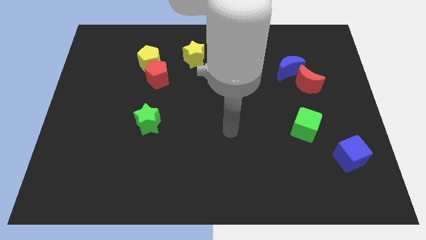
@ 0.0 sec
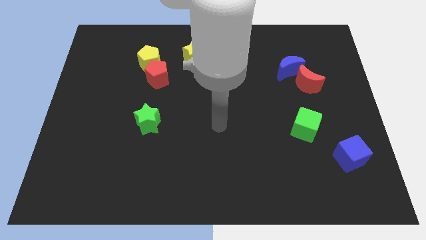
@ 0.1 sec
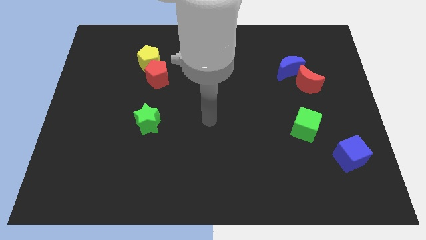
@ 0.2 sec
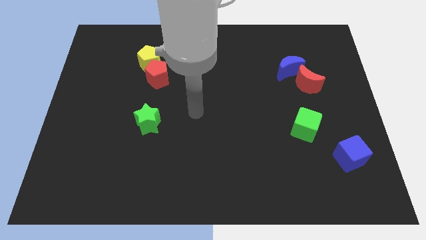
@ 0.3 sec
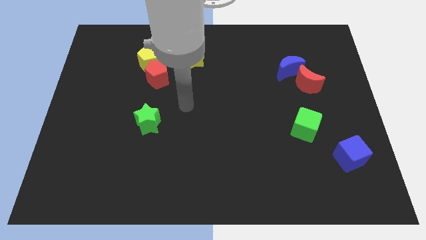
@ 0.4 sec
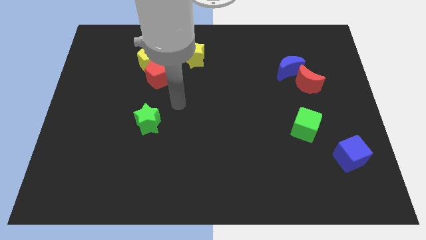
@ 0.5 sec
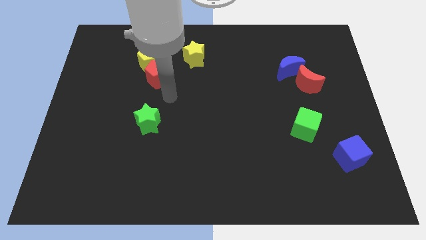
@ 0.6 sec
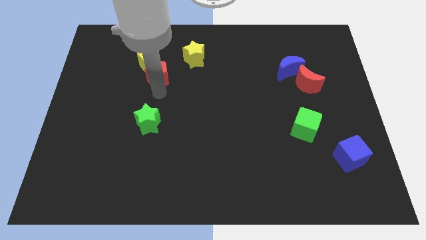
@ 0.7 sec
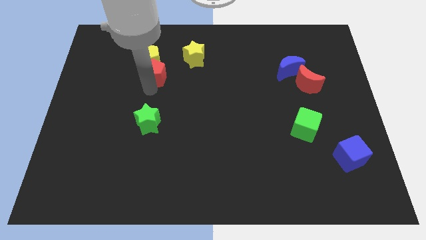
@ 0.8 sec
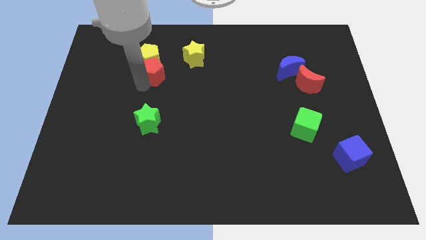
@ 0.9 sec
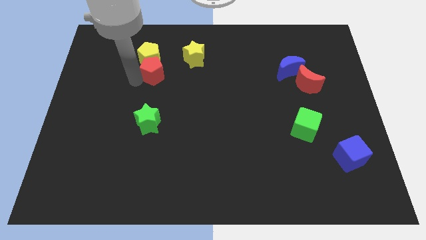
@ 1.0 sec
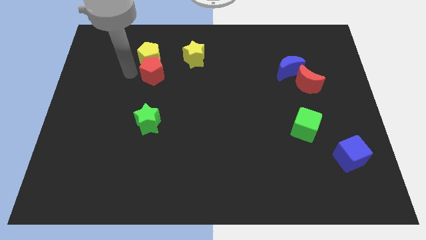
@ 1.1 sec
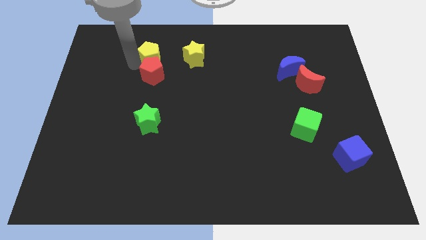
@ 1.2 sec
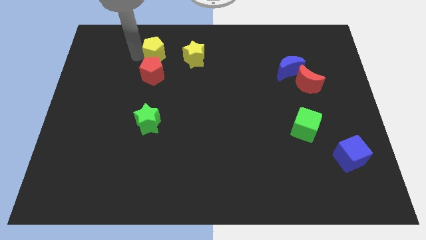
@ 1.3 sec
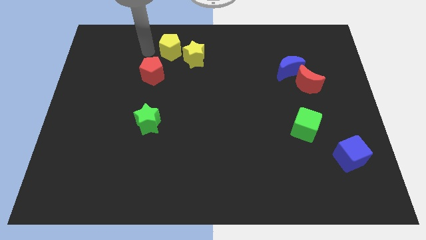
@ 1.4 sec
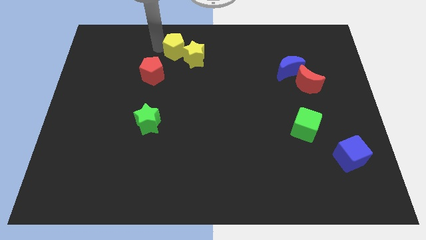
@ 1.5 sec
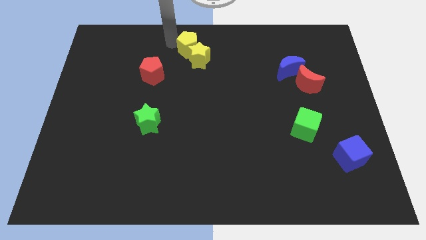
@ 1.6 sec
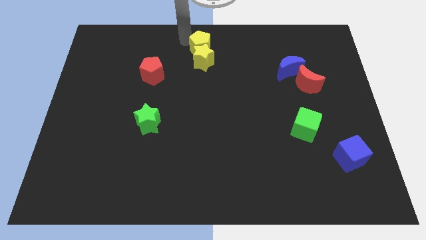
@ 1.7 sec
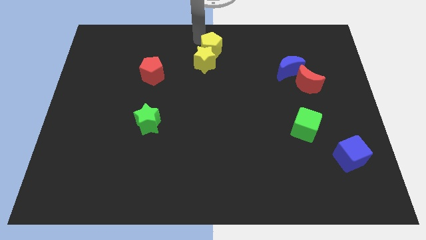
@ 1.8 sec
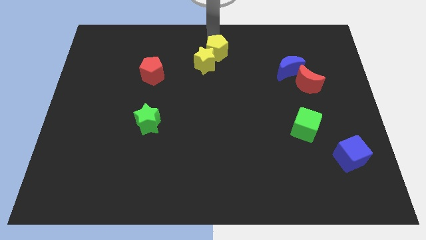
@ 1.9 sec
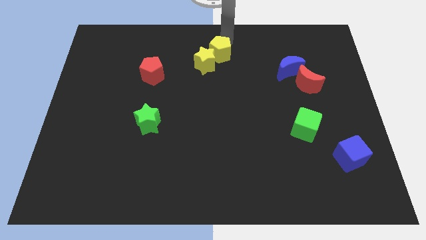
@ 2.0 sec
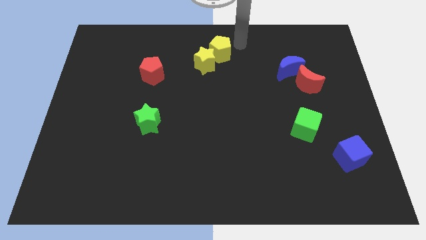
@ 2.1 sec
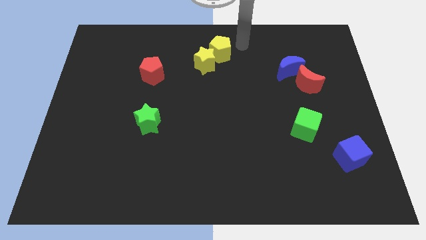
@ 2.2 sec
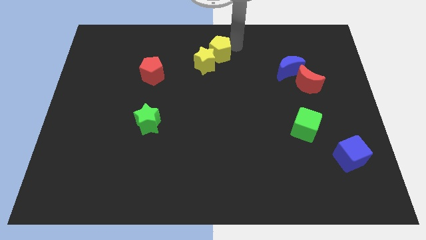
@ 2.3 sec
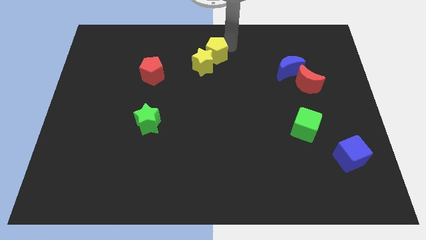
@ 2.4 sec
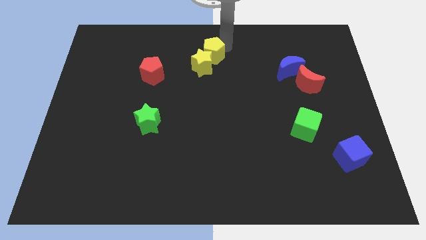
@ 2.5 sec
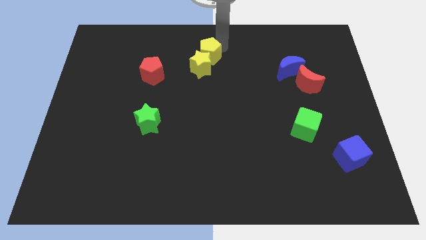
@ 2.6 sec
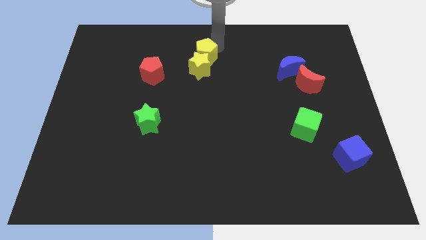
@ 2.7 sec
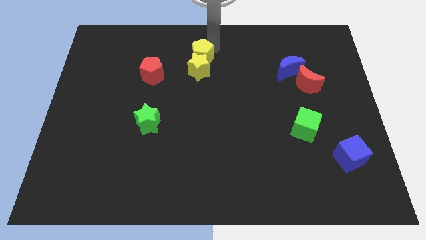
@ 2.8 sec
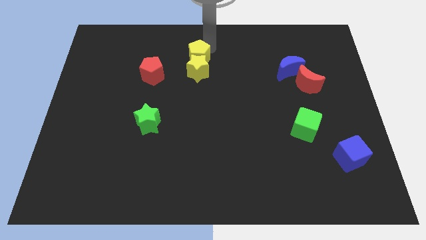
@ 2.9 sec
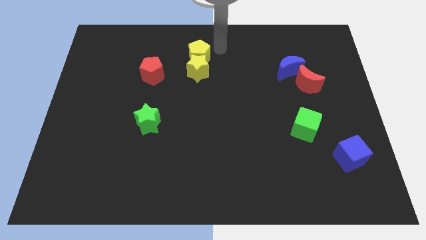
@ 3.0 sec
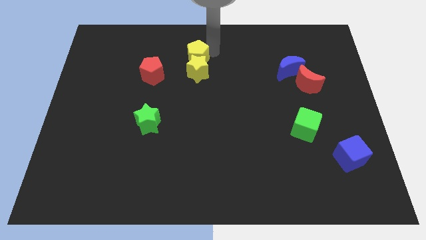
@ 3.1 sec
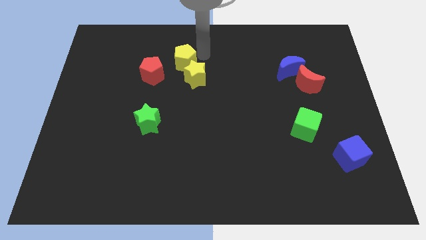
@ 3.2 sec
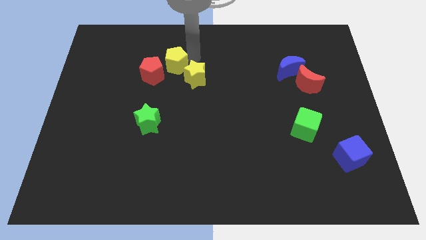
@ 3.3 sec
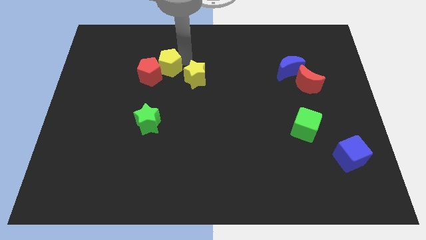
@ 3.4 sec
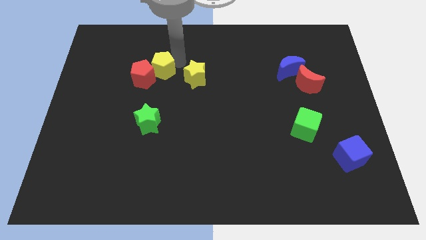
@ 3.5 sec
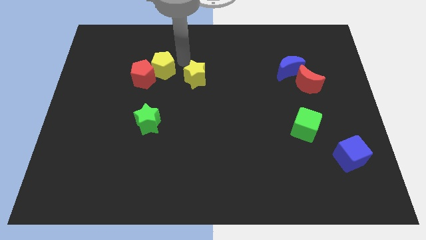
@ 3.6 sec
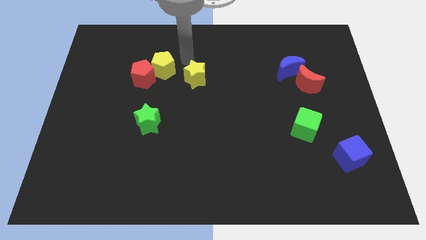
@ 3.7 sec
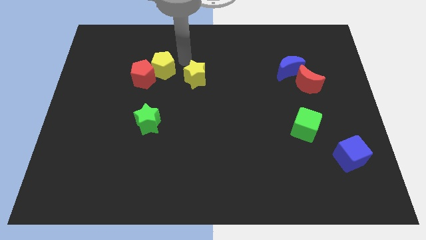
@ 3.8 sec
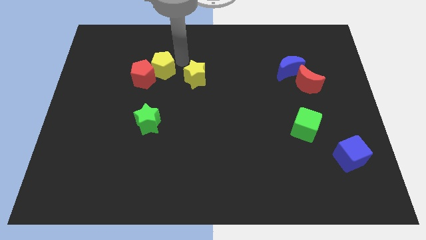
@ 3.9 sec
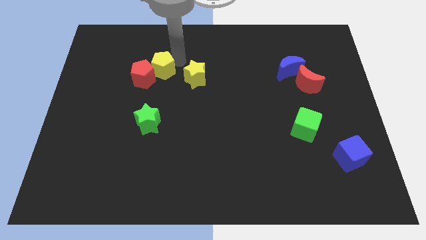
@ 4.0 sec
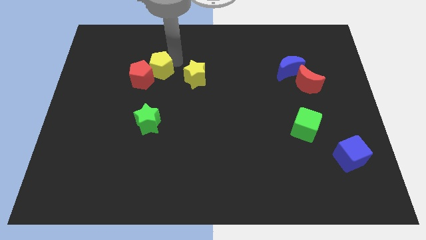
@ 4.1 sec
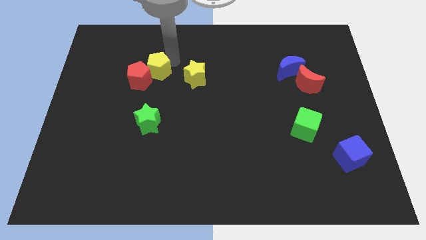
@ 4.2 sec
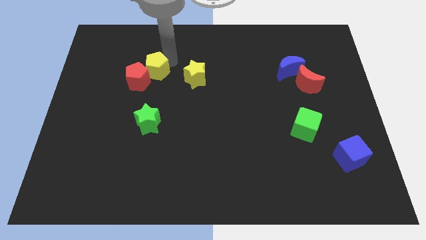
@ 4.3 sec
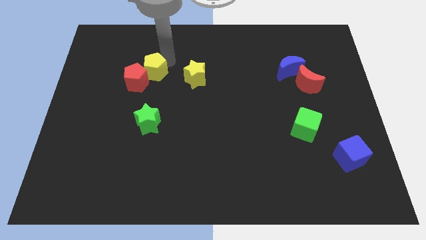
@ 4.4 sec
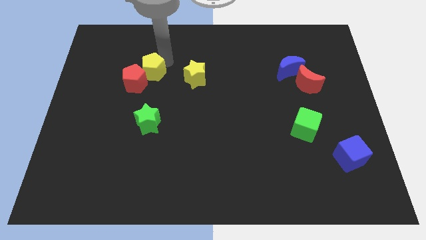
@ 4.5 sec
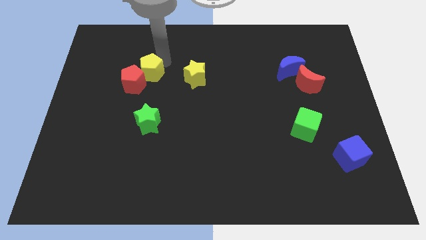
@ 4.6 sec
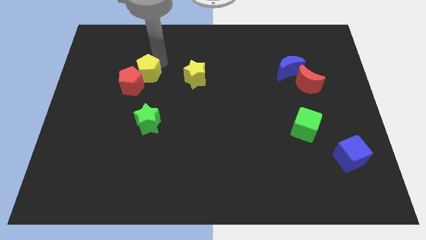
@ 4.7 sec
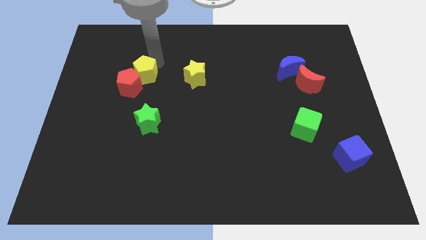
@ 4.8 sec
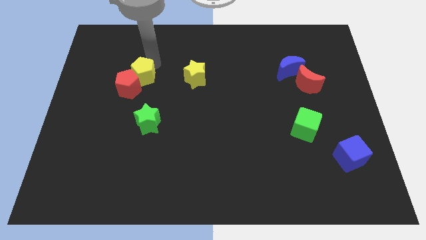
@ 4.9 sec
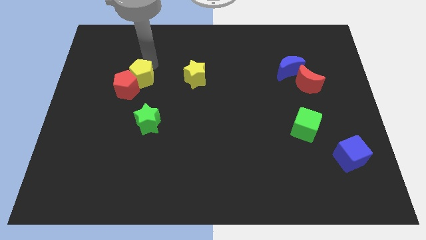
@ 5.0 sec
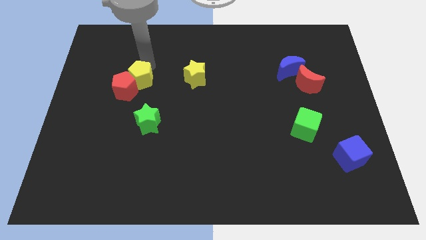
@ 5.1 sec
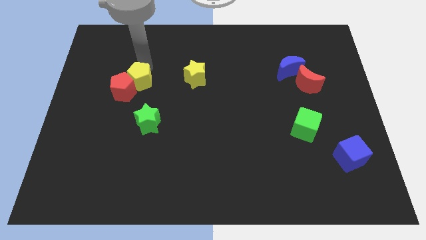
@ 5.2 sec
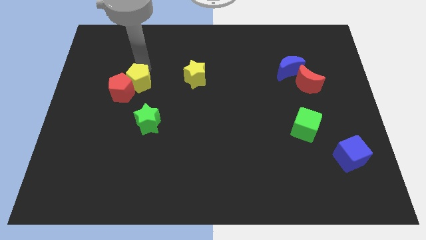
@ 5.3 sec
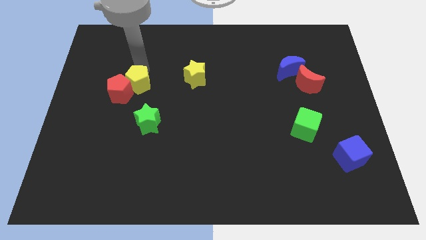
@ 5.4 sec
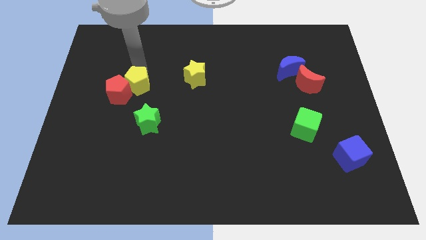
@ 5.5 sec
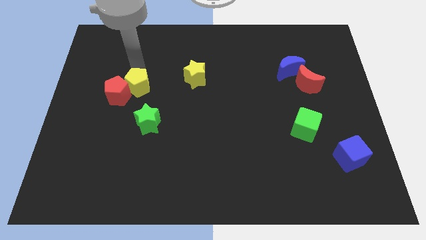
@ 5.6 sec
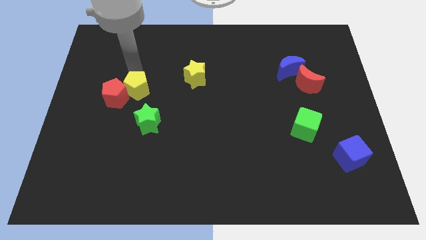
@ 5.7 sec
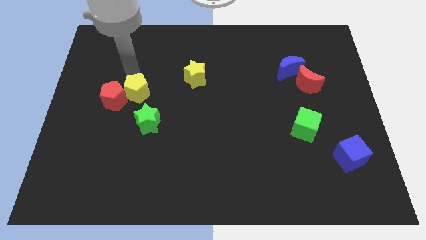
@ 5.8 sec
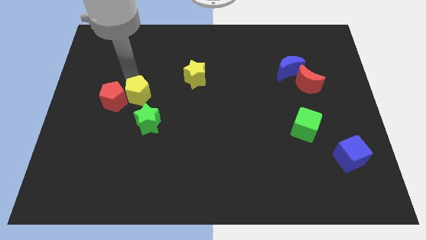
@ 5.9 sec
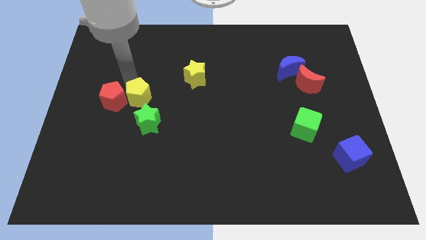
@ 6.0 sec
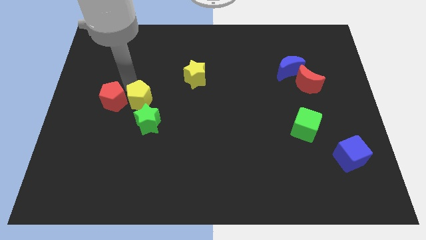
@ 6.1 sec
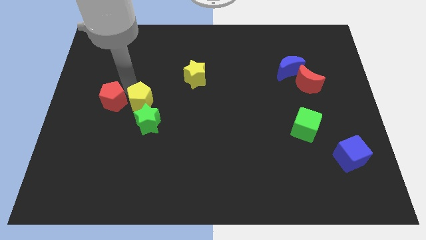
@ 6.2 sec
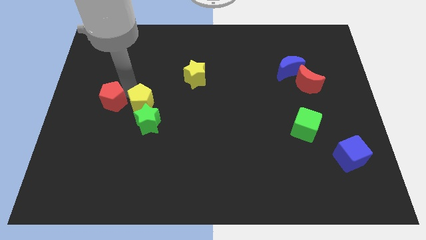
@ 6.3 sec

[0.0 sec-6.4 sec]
move the yellow pentagon next to the green star

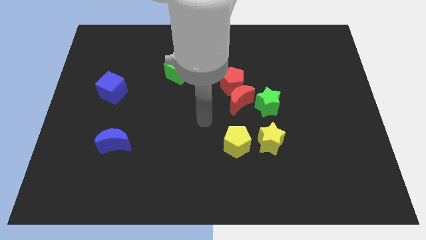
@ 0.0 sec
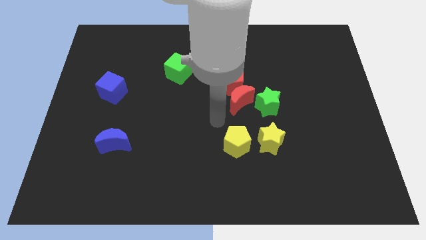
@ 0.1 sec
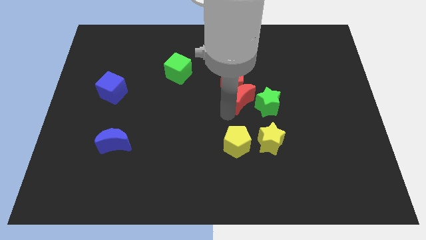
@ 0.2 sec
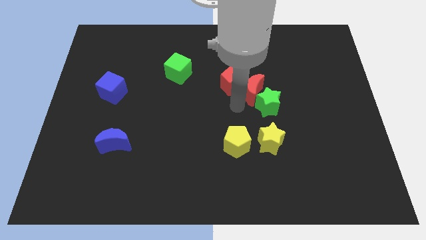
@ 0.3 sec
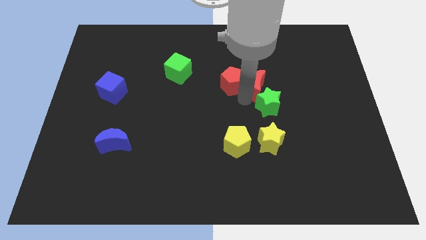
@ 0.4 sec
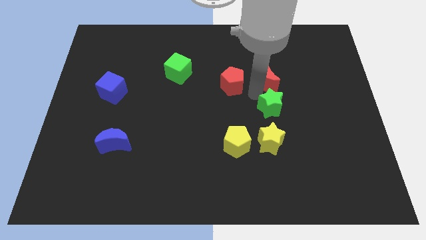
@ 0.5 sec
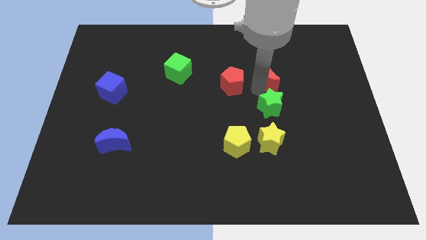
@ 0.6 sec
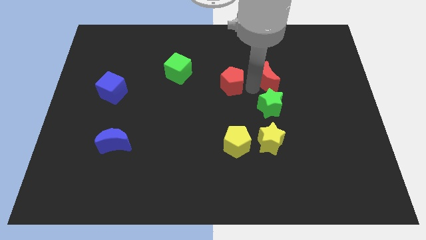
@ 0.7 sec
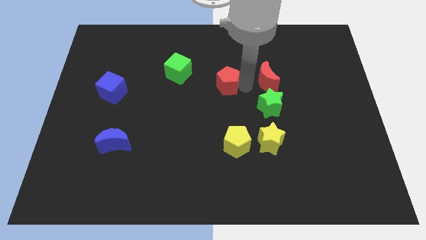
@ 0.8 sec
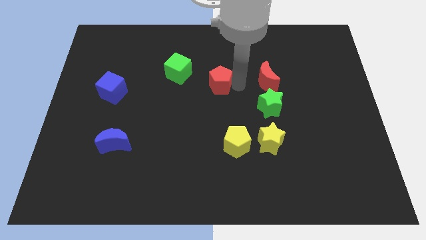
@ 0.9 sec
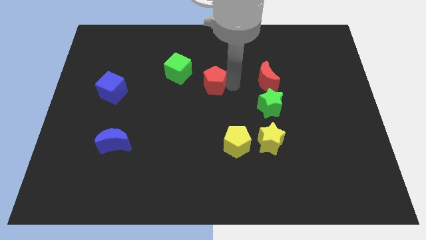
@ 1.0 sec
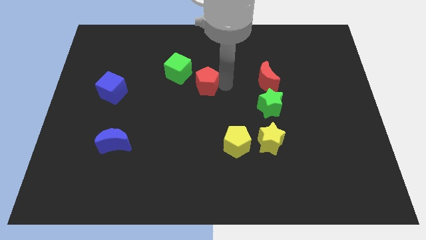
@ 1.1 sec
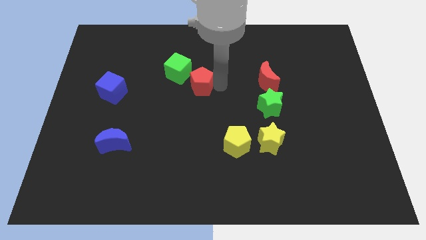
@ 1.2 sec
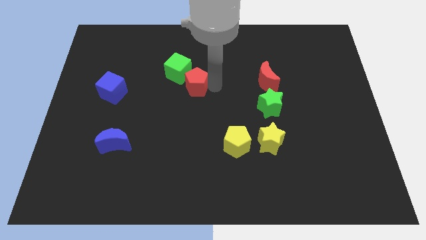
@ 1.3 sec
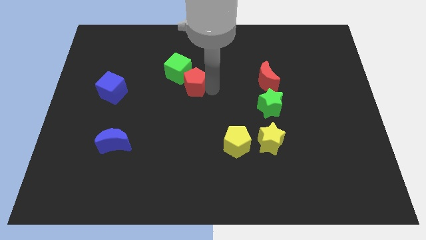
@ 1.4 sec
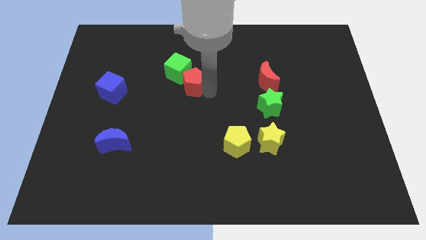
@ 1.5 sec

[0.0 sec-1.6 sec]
move the red pentagon next to the green cube

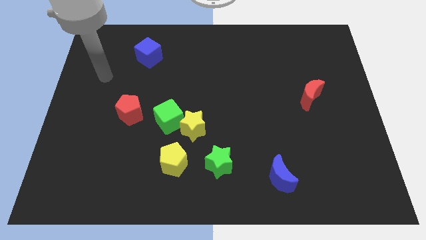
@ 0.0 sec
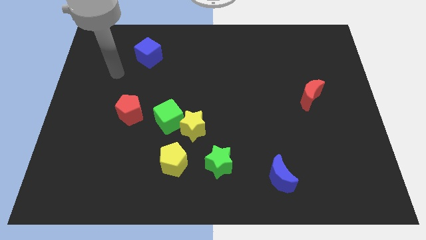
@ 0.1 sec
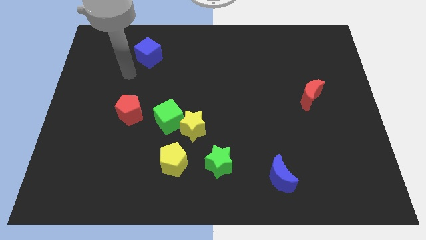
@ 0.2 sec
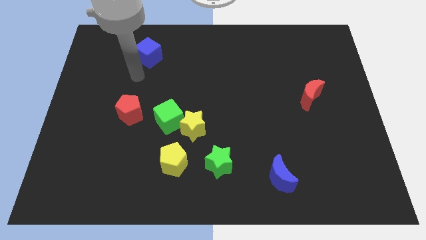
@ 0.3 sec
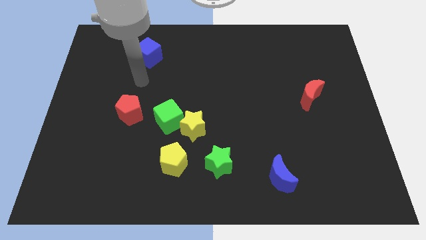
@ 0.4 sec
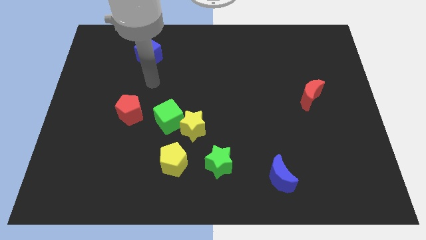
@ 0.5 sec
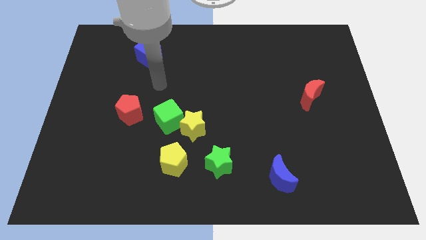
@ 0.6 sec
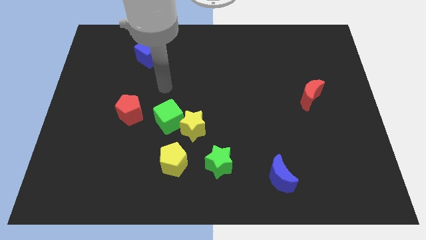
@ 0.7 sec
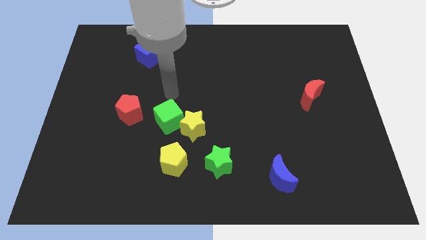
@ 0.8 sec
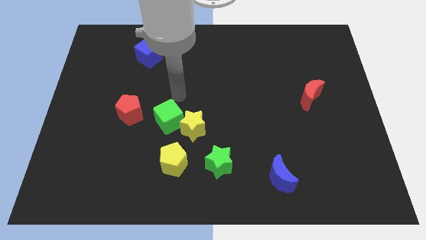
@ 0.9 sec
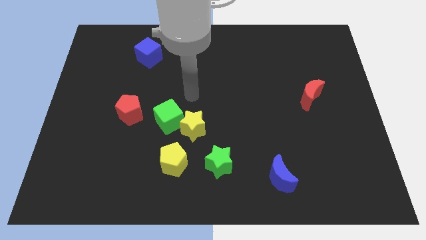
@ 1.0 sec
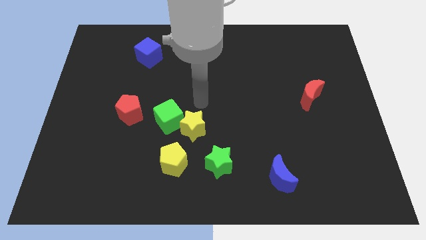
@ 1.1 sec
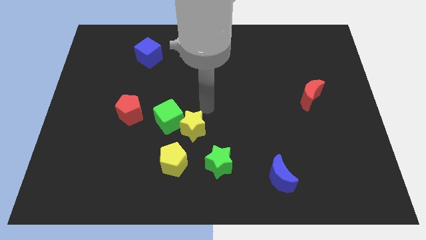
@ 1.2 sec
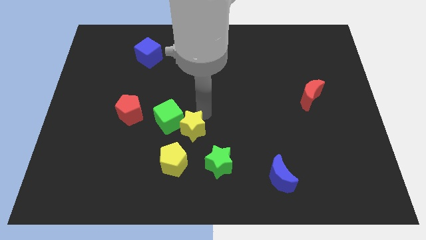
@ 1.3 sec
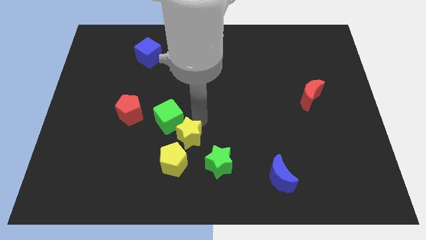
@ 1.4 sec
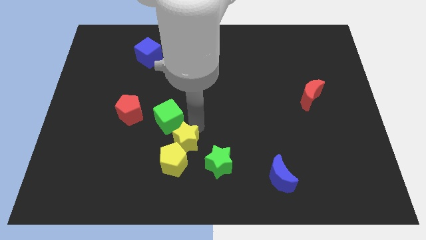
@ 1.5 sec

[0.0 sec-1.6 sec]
move the yellow star towards the yellow pentagon
